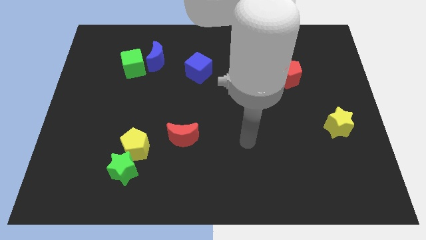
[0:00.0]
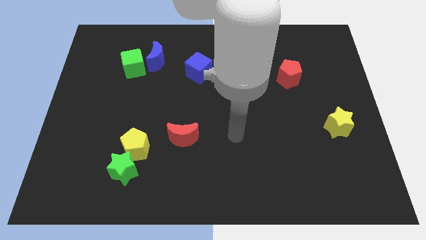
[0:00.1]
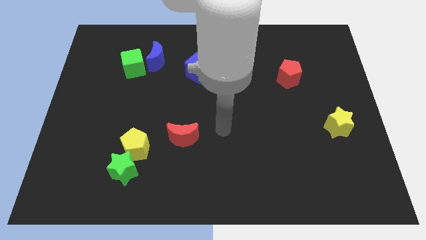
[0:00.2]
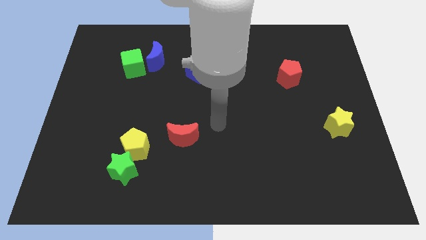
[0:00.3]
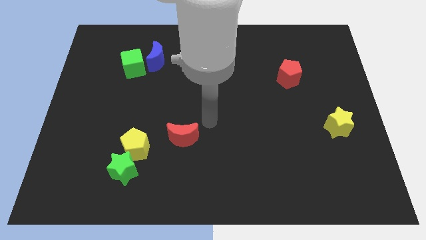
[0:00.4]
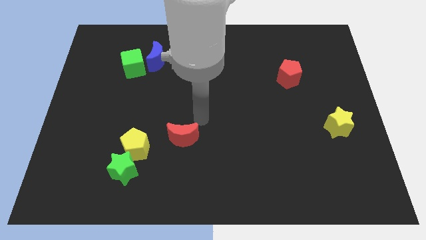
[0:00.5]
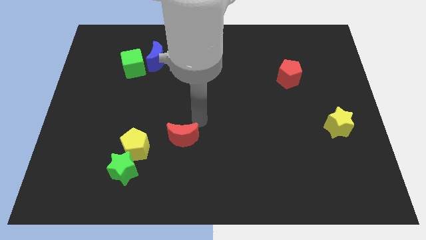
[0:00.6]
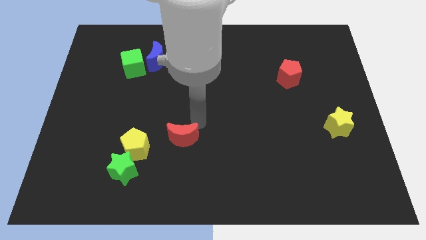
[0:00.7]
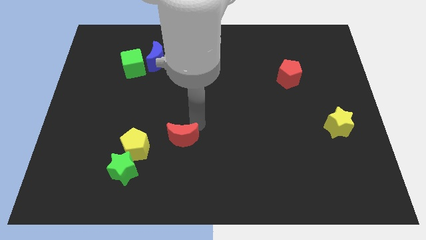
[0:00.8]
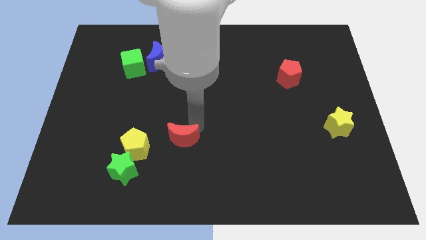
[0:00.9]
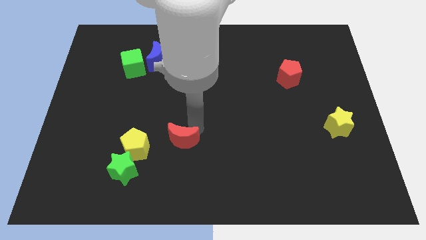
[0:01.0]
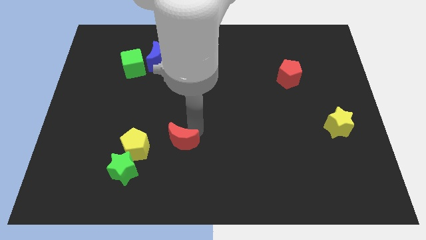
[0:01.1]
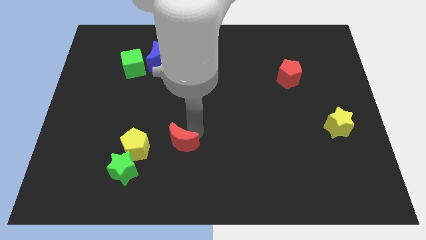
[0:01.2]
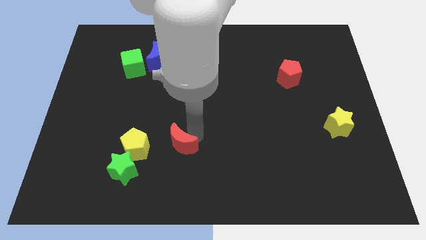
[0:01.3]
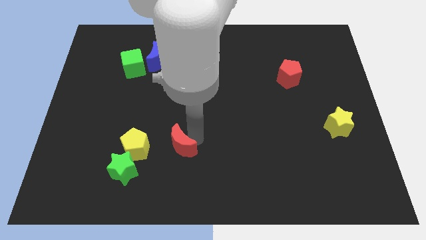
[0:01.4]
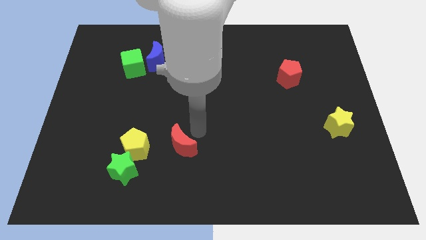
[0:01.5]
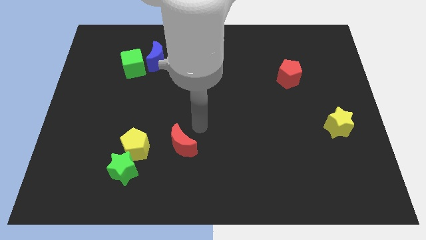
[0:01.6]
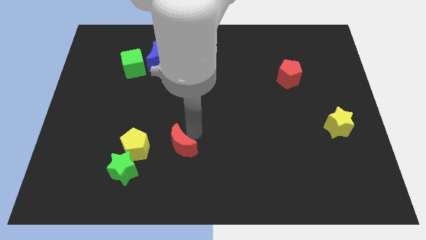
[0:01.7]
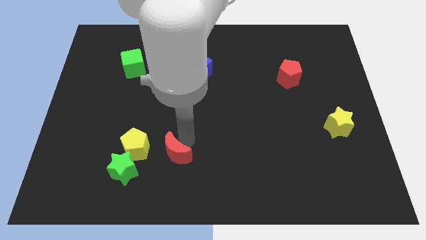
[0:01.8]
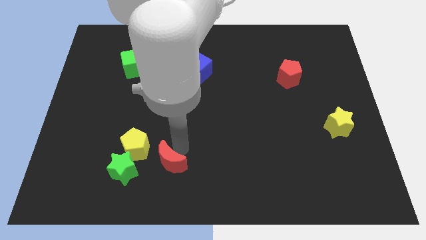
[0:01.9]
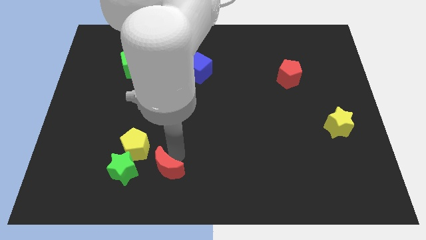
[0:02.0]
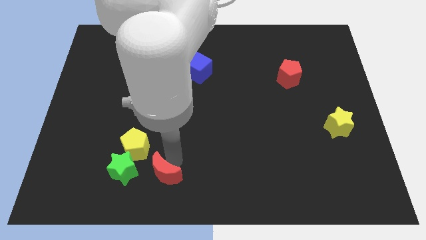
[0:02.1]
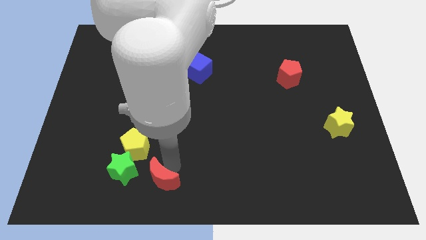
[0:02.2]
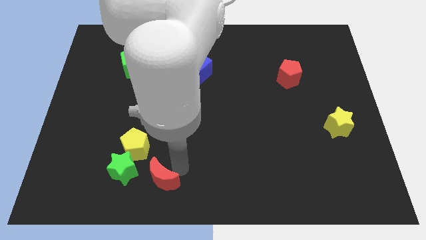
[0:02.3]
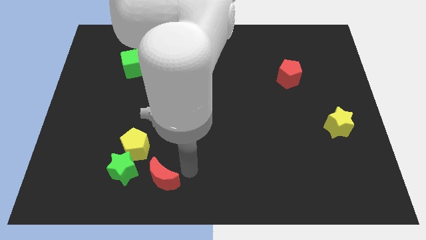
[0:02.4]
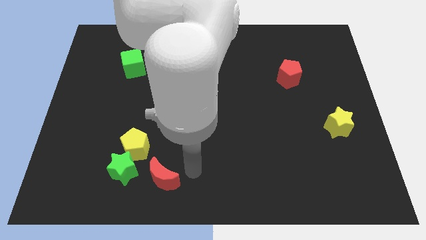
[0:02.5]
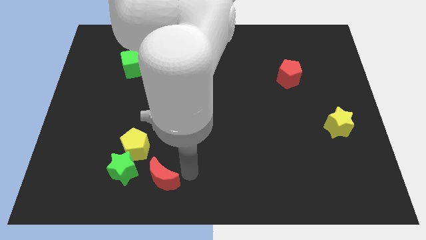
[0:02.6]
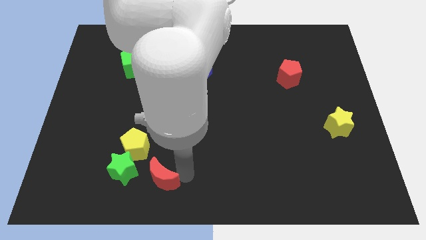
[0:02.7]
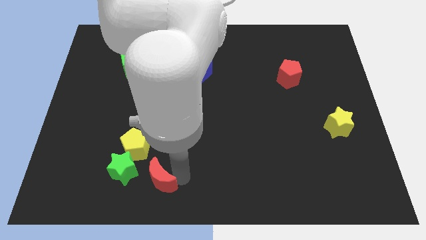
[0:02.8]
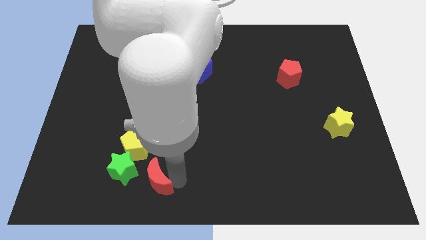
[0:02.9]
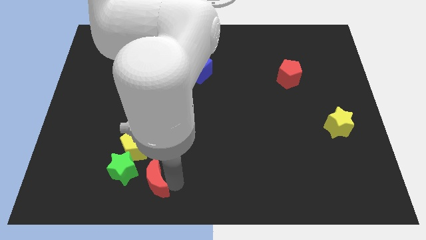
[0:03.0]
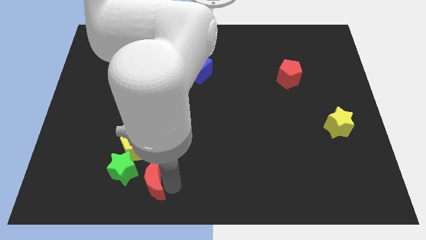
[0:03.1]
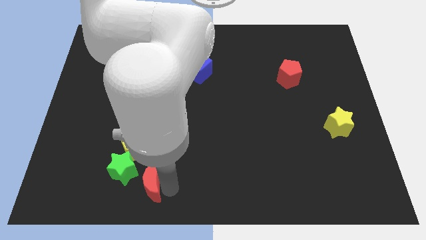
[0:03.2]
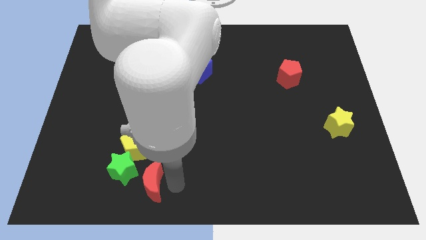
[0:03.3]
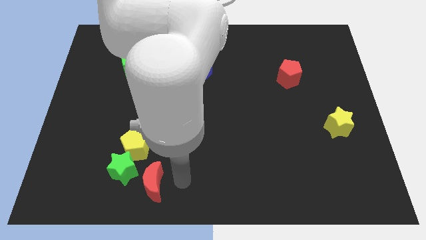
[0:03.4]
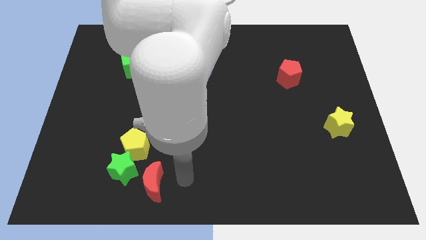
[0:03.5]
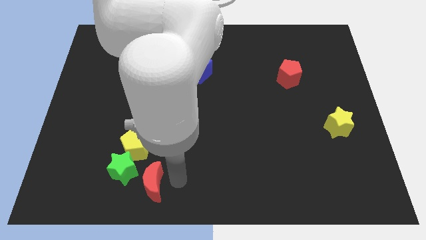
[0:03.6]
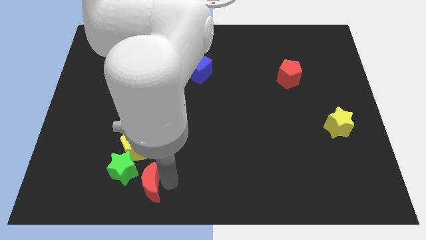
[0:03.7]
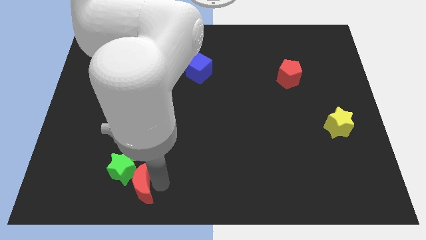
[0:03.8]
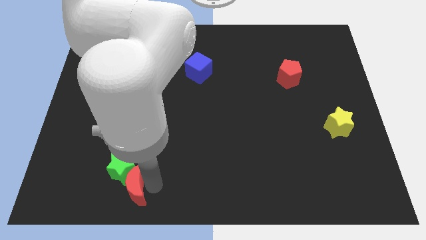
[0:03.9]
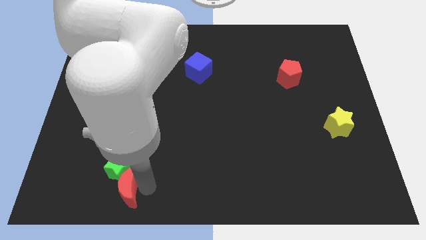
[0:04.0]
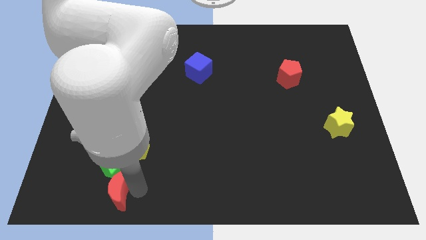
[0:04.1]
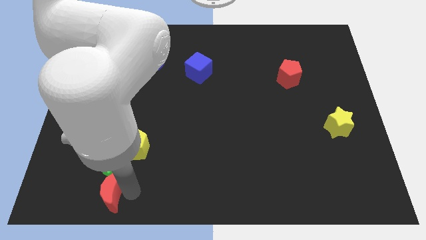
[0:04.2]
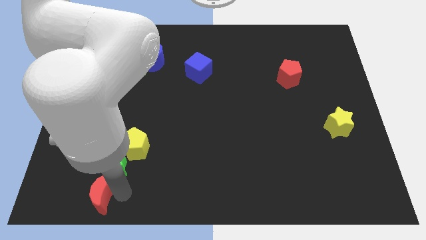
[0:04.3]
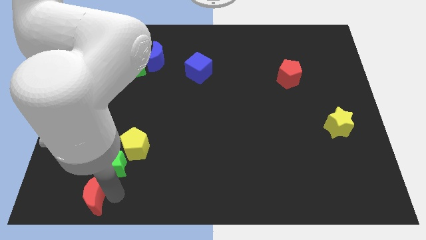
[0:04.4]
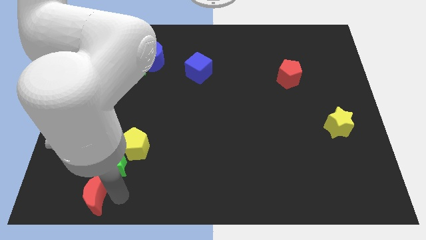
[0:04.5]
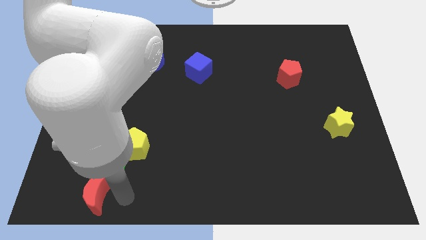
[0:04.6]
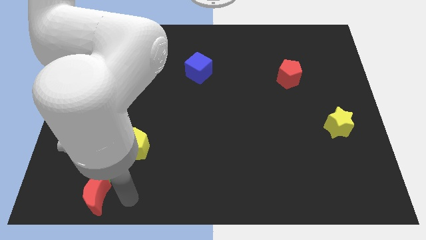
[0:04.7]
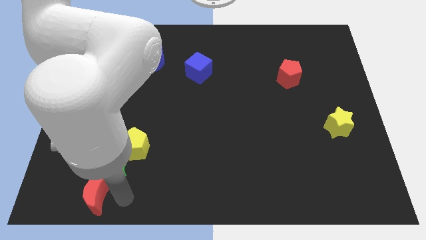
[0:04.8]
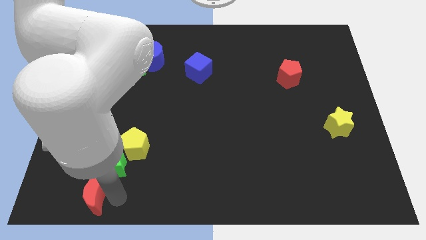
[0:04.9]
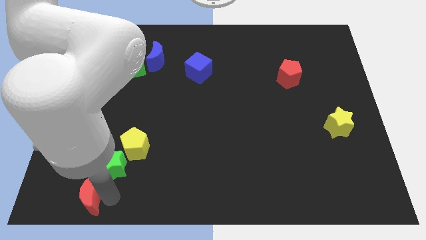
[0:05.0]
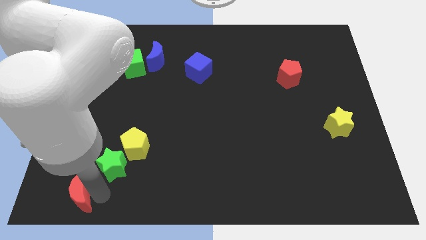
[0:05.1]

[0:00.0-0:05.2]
slide the red moon to the bottom left of the board

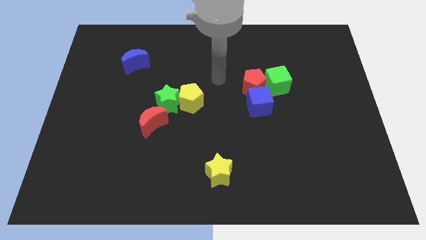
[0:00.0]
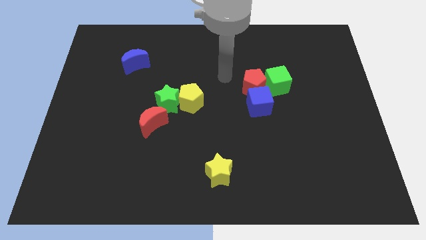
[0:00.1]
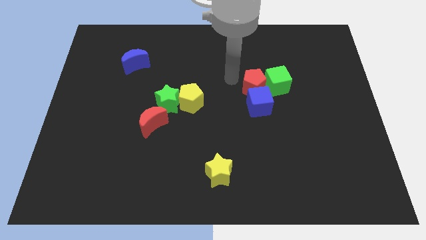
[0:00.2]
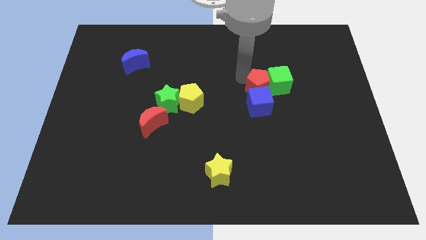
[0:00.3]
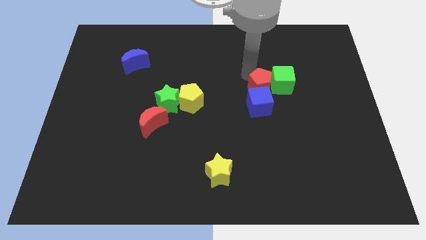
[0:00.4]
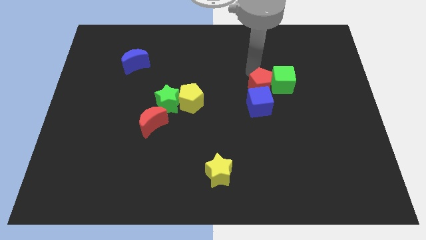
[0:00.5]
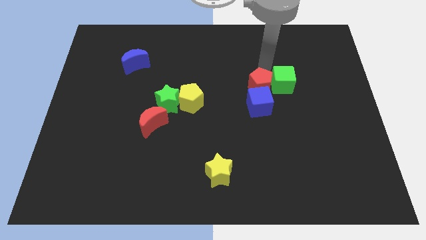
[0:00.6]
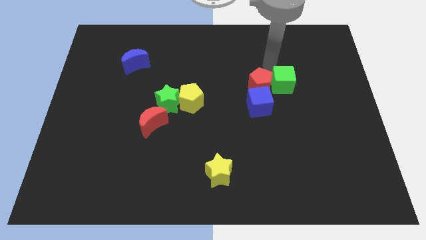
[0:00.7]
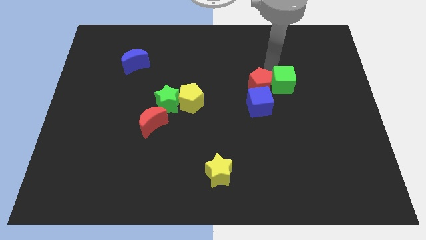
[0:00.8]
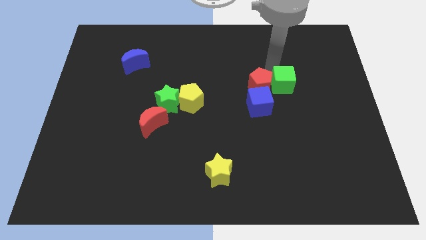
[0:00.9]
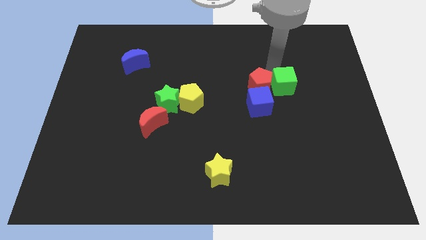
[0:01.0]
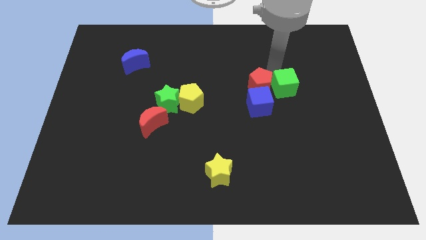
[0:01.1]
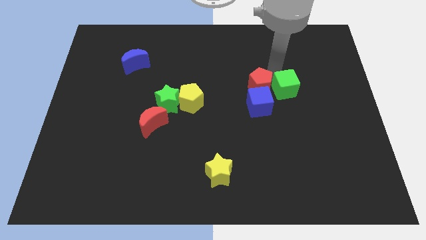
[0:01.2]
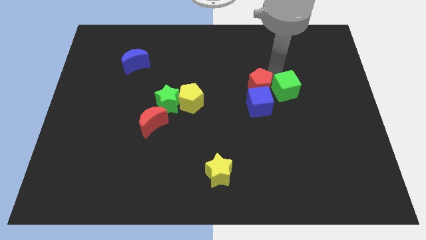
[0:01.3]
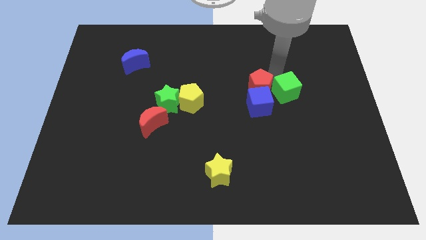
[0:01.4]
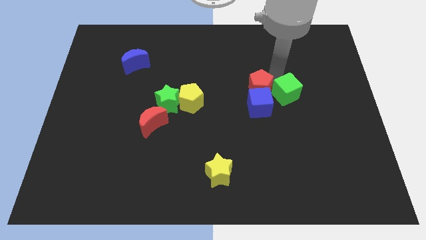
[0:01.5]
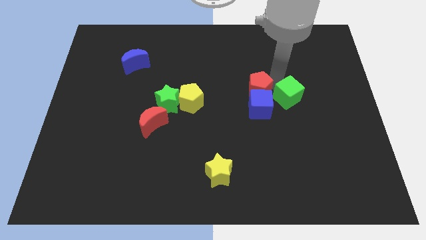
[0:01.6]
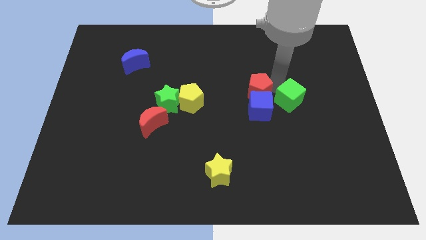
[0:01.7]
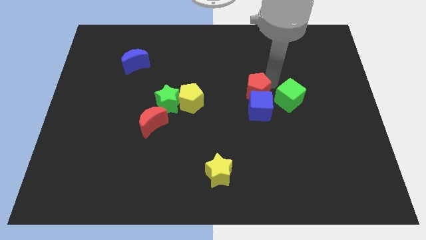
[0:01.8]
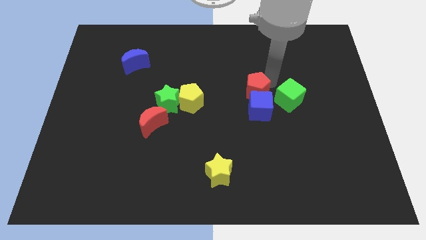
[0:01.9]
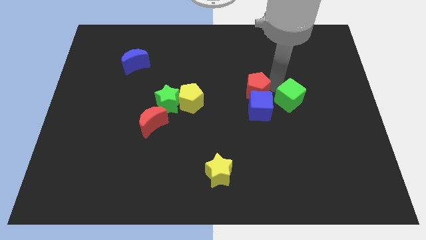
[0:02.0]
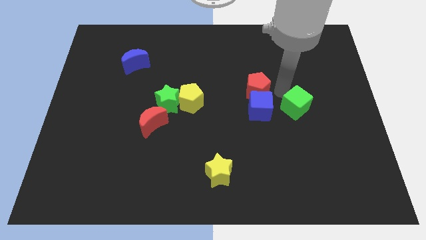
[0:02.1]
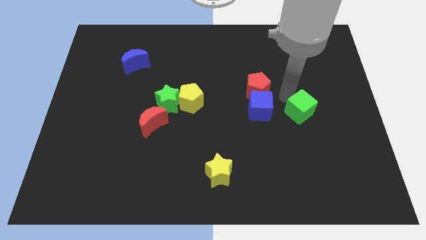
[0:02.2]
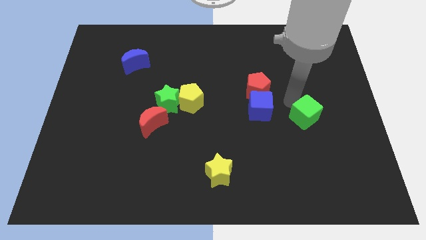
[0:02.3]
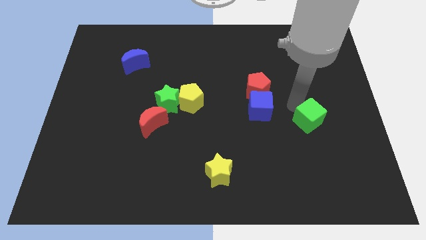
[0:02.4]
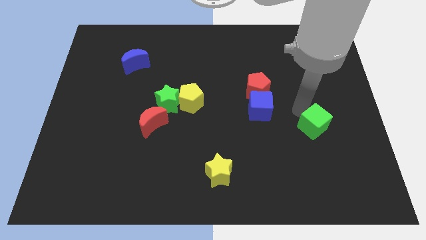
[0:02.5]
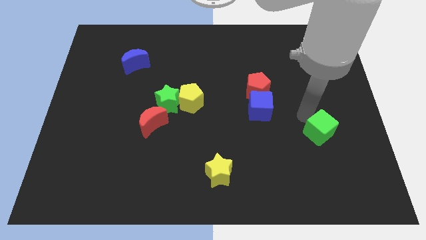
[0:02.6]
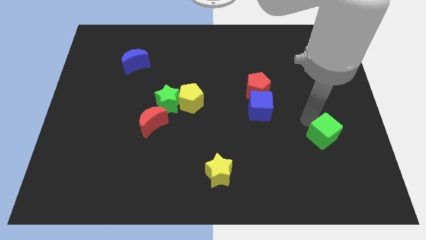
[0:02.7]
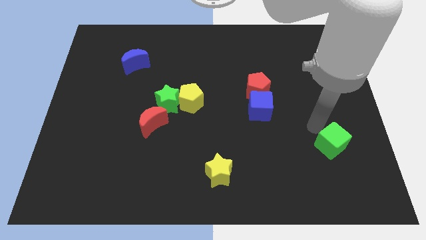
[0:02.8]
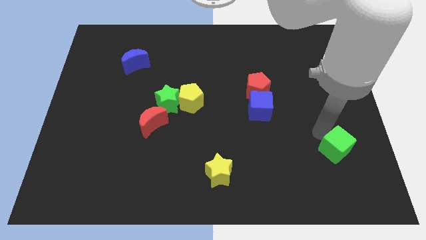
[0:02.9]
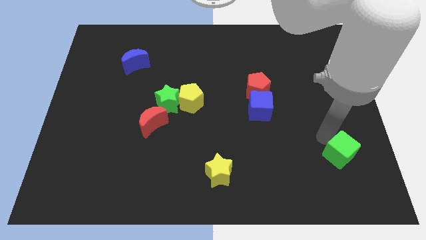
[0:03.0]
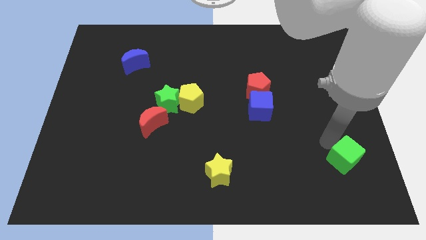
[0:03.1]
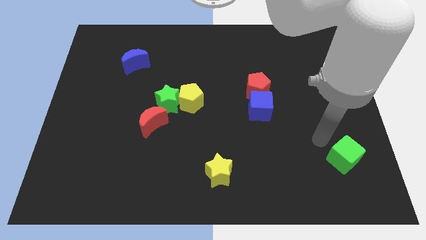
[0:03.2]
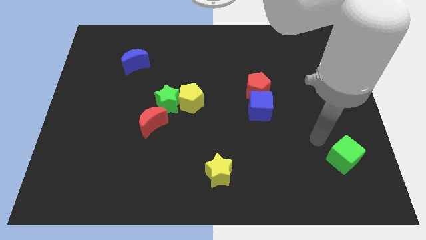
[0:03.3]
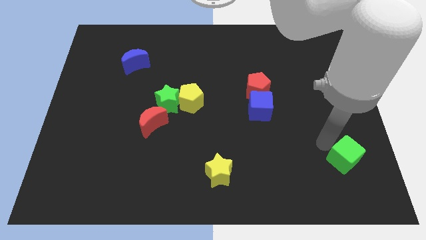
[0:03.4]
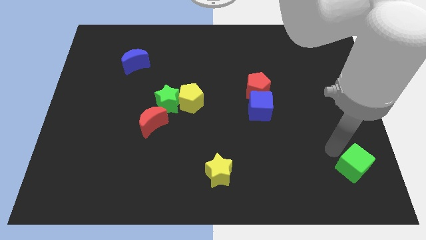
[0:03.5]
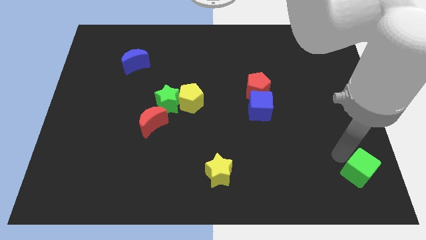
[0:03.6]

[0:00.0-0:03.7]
move the green cube to the bottom right corner
